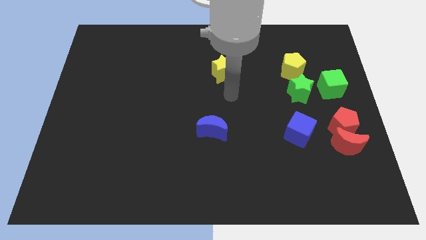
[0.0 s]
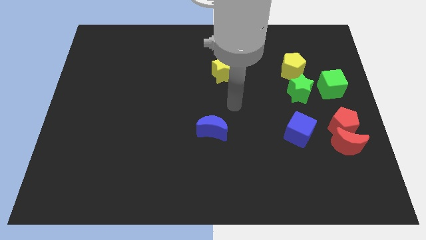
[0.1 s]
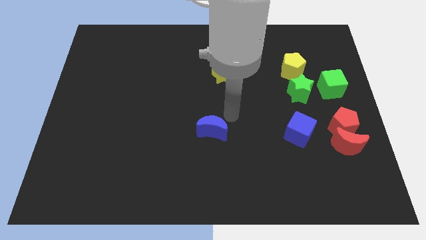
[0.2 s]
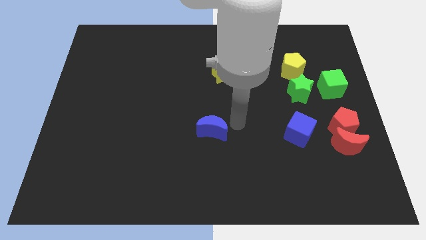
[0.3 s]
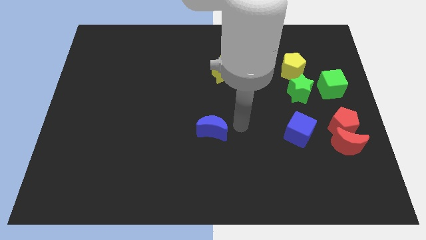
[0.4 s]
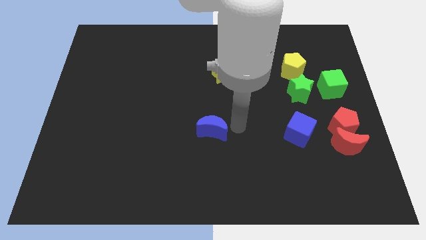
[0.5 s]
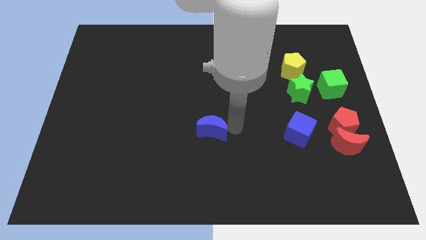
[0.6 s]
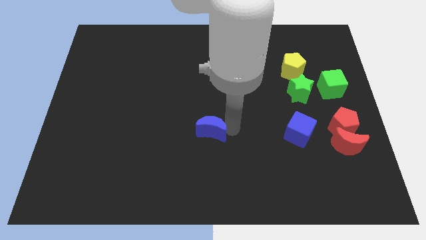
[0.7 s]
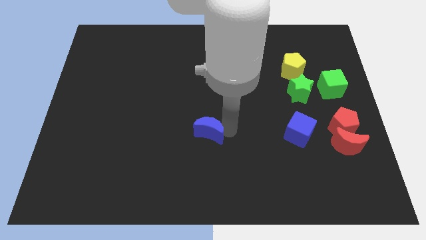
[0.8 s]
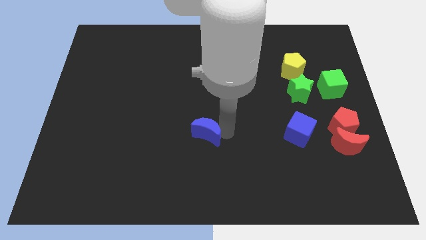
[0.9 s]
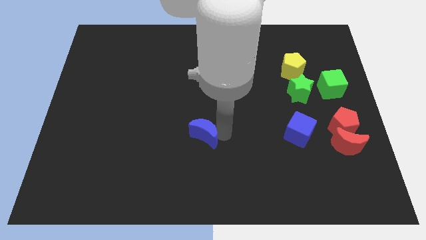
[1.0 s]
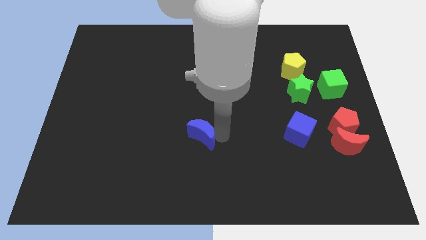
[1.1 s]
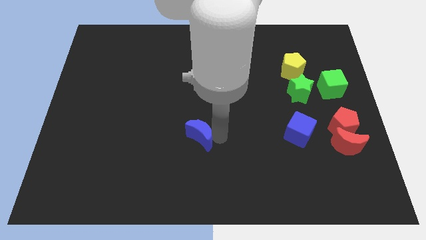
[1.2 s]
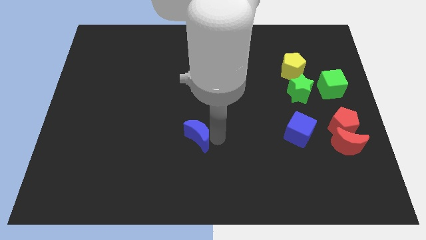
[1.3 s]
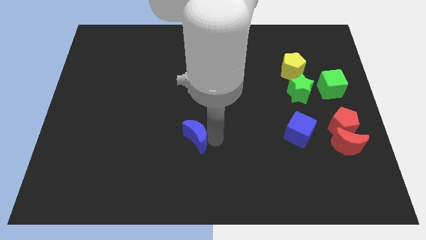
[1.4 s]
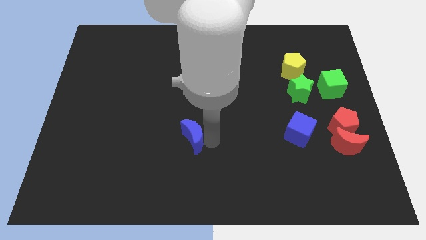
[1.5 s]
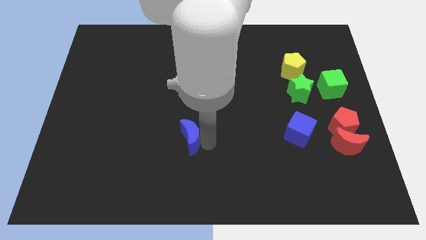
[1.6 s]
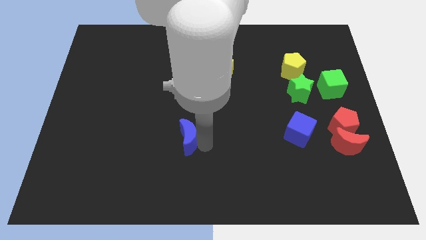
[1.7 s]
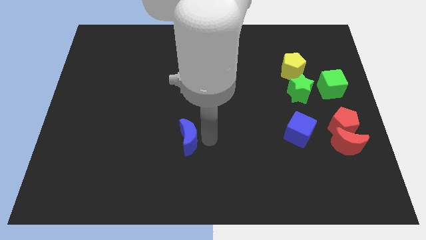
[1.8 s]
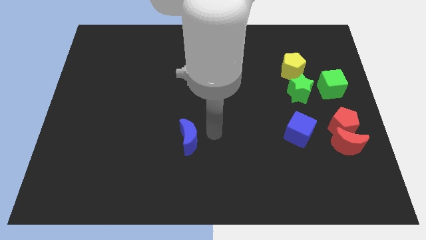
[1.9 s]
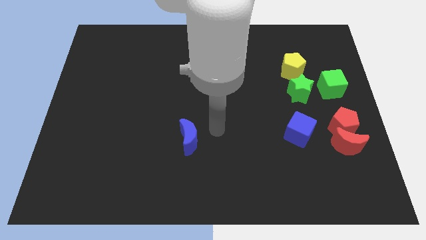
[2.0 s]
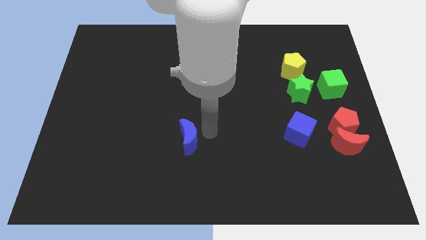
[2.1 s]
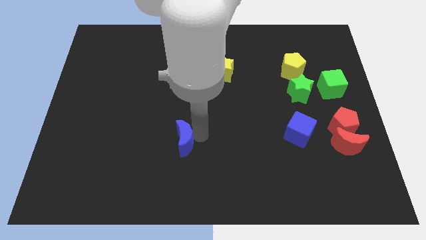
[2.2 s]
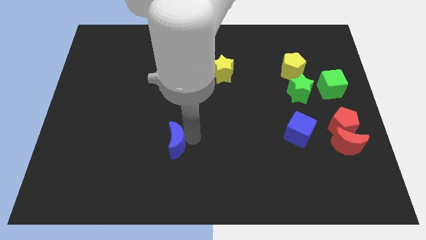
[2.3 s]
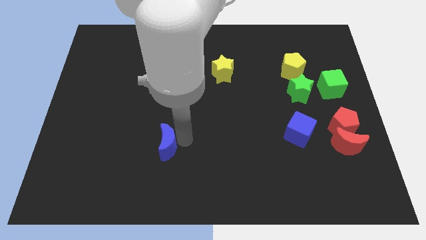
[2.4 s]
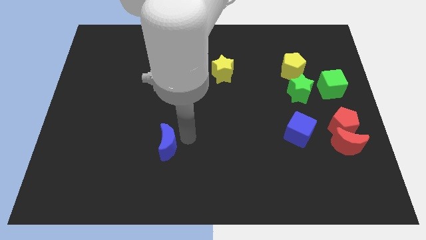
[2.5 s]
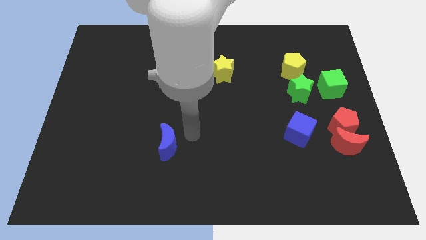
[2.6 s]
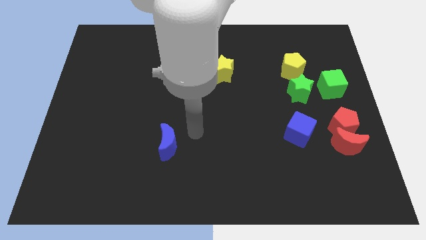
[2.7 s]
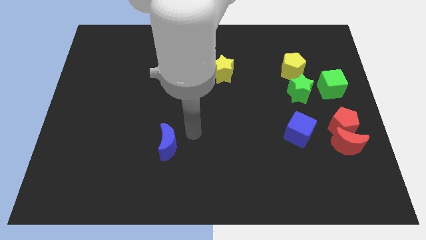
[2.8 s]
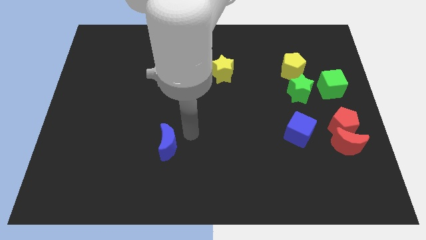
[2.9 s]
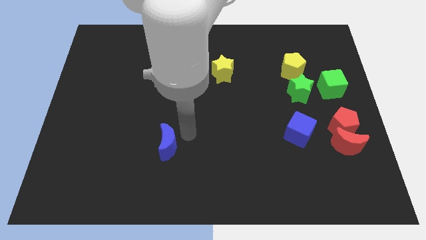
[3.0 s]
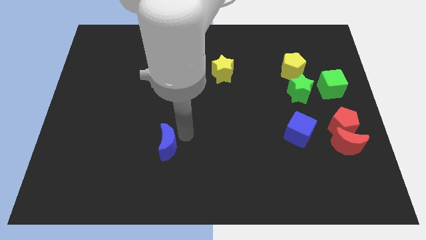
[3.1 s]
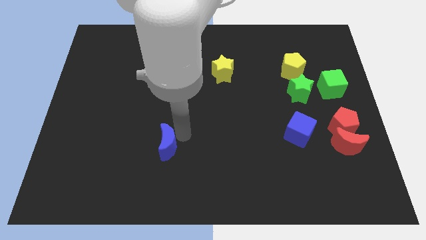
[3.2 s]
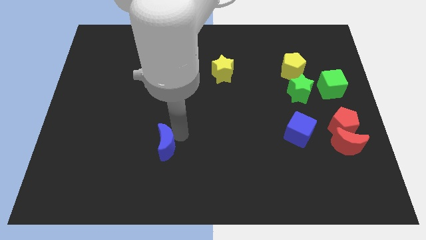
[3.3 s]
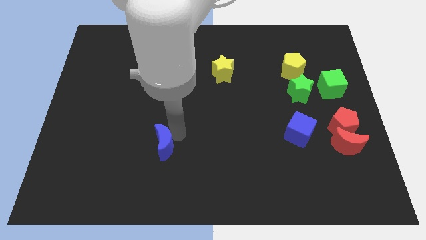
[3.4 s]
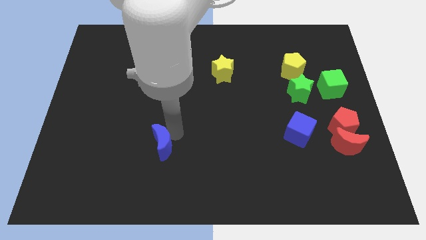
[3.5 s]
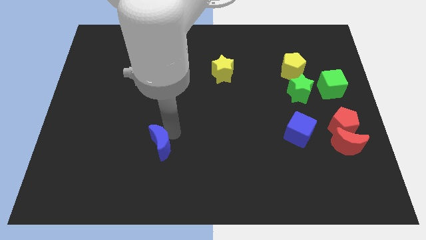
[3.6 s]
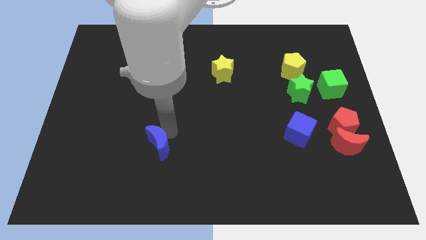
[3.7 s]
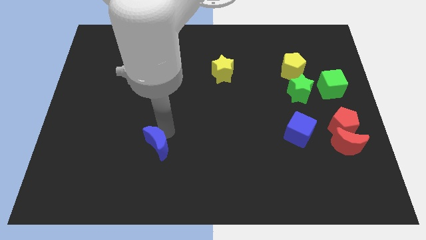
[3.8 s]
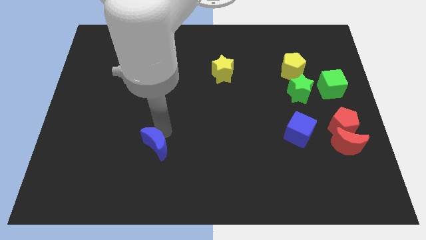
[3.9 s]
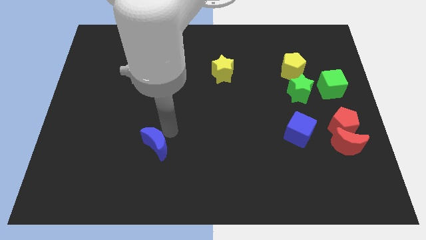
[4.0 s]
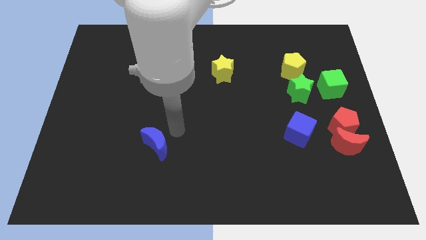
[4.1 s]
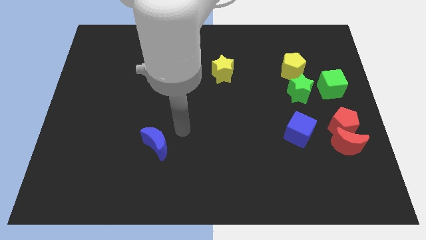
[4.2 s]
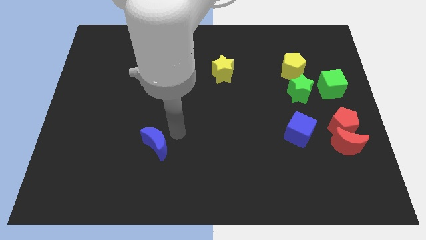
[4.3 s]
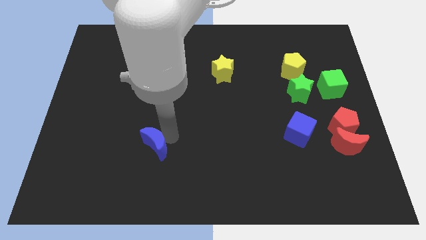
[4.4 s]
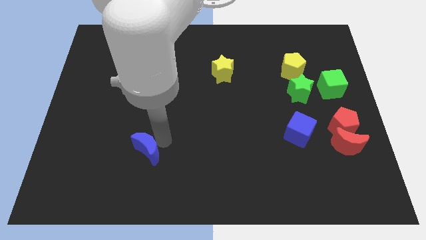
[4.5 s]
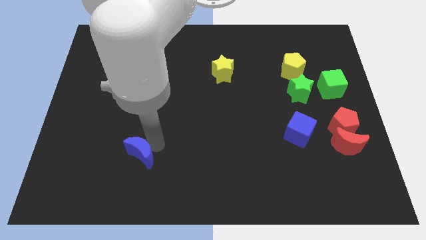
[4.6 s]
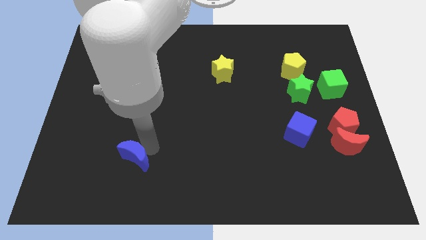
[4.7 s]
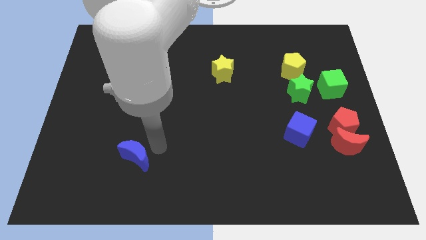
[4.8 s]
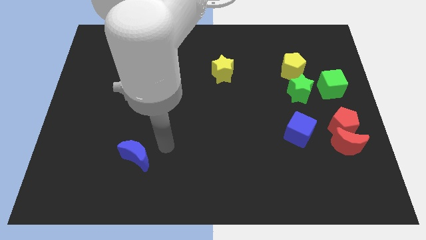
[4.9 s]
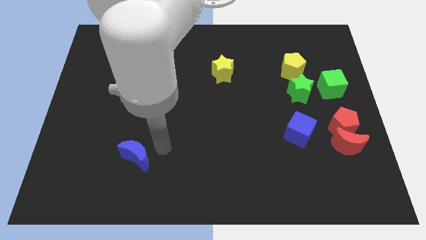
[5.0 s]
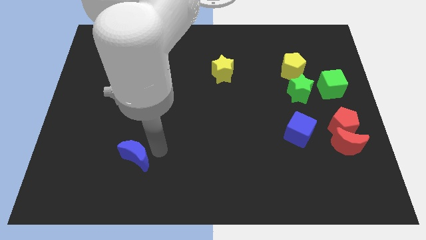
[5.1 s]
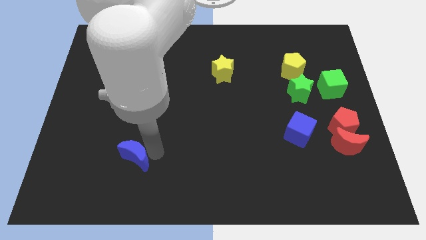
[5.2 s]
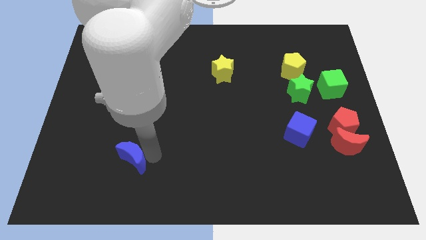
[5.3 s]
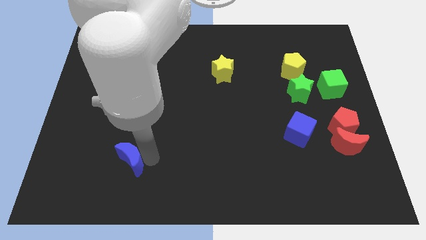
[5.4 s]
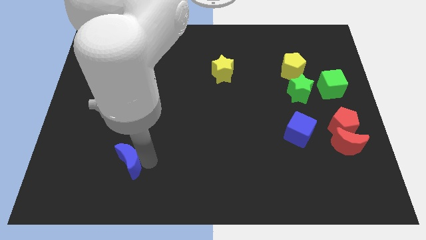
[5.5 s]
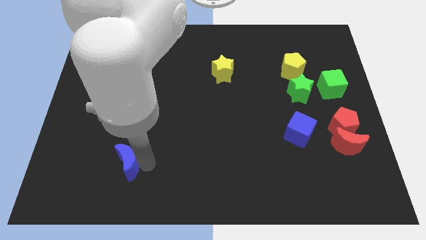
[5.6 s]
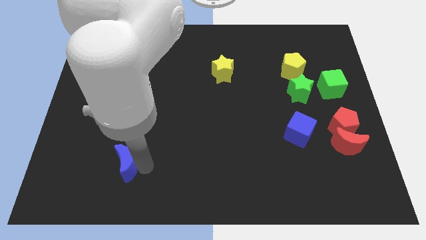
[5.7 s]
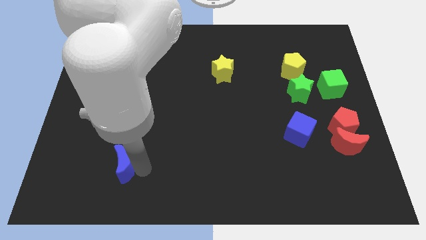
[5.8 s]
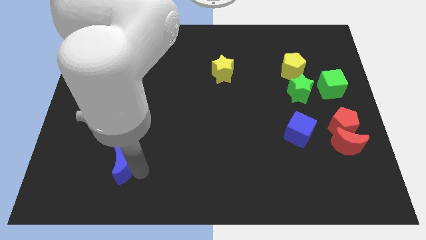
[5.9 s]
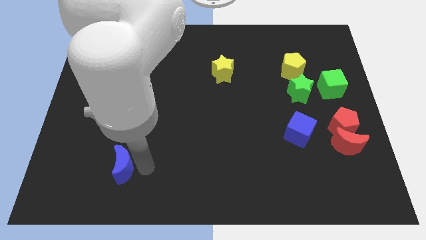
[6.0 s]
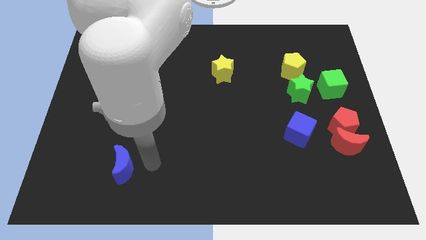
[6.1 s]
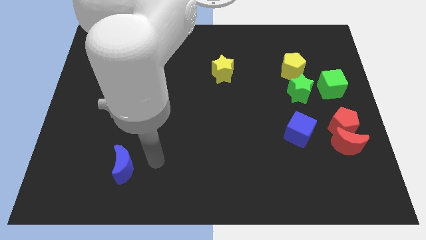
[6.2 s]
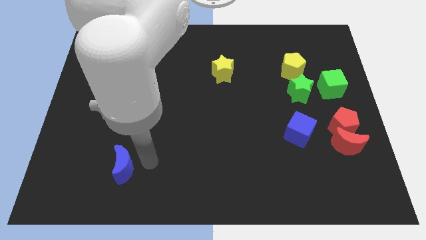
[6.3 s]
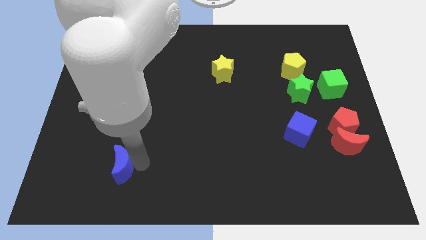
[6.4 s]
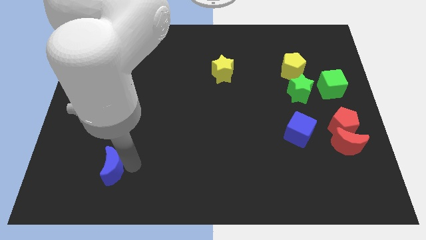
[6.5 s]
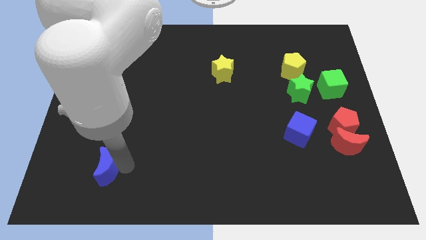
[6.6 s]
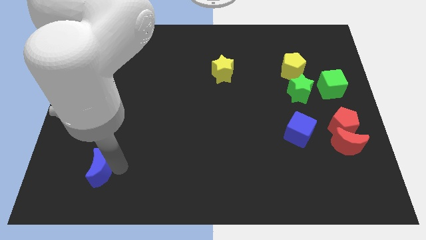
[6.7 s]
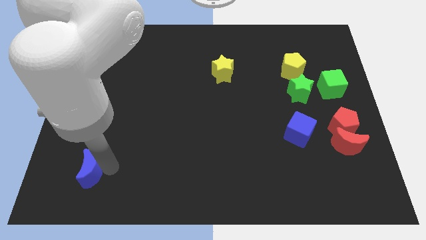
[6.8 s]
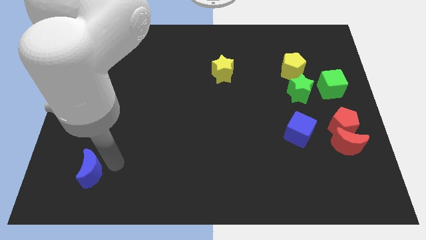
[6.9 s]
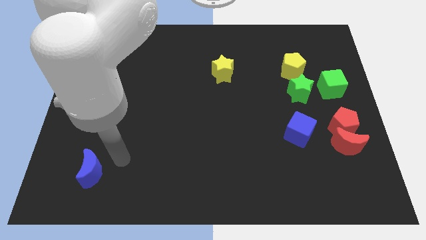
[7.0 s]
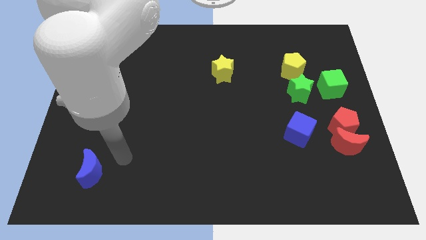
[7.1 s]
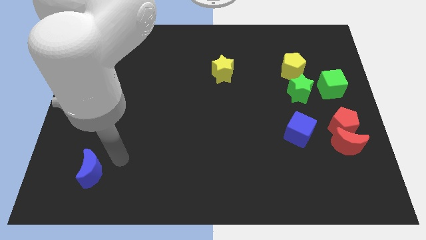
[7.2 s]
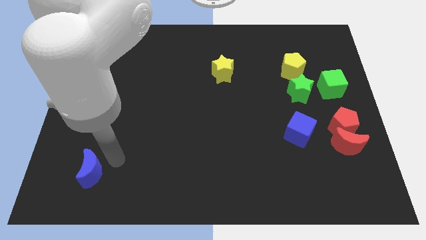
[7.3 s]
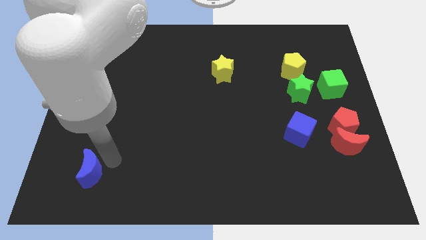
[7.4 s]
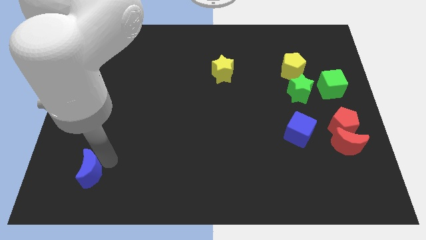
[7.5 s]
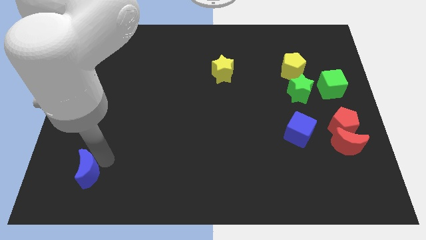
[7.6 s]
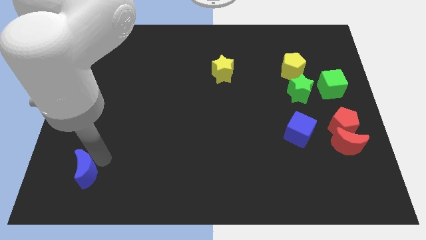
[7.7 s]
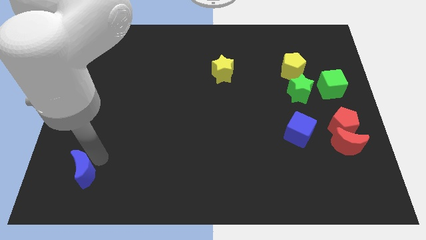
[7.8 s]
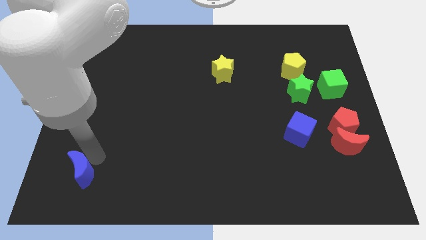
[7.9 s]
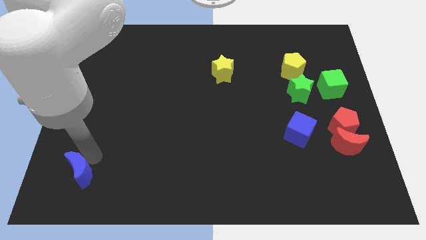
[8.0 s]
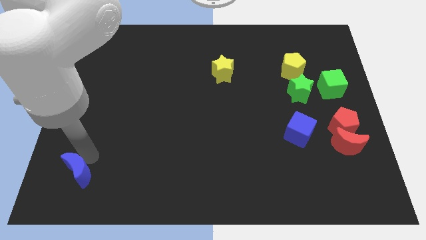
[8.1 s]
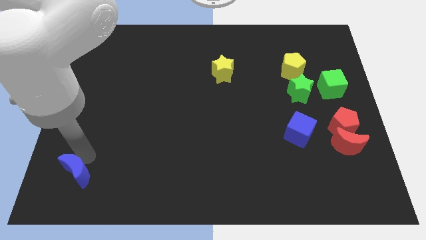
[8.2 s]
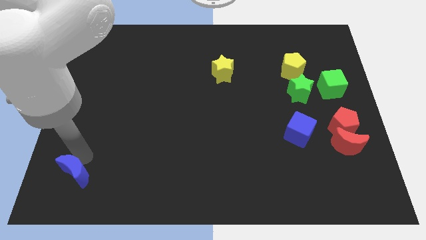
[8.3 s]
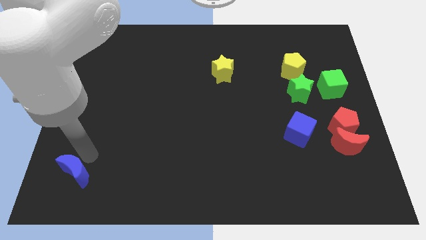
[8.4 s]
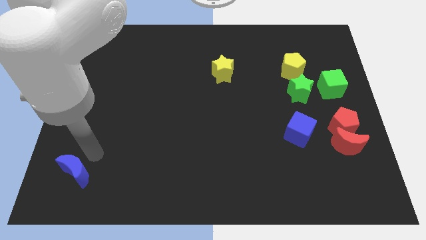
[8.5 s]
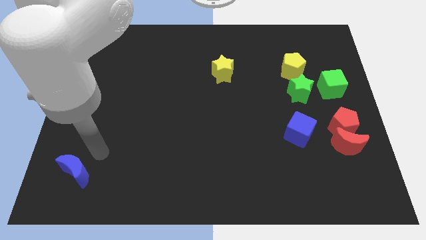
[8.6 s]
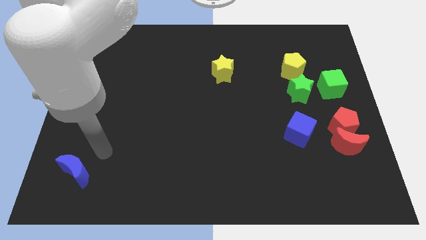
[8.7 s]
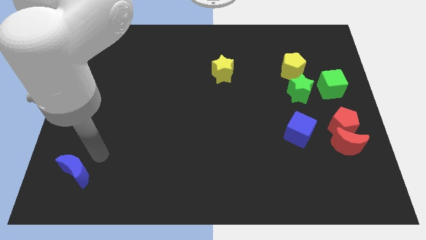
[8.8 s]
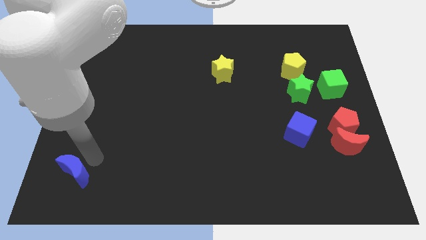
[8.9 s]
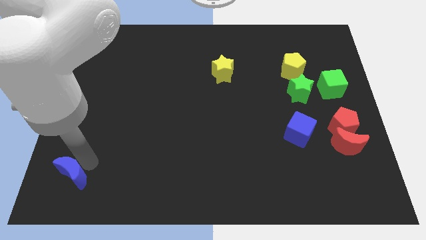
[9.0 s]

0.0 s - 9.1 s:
move the blue moon to the bottom left corner
